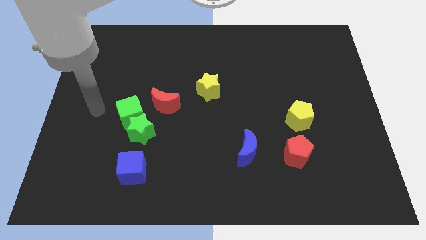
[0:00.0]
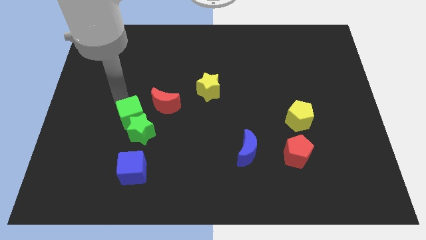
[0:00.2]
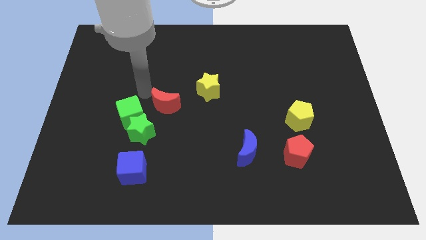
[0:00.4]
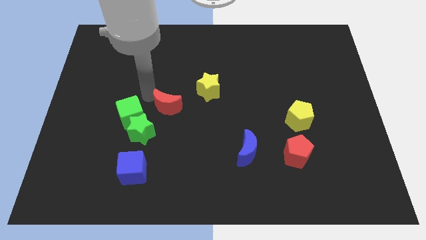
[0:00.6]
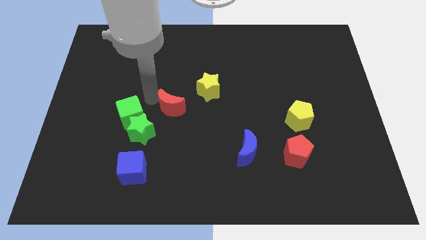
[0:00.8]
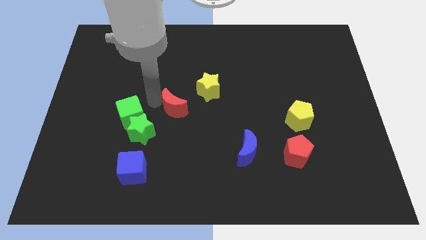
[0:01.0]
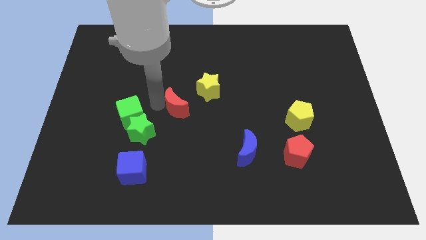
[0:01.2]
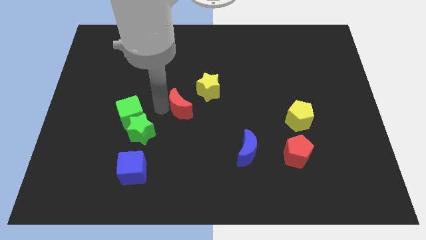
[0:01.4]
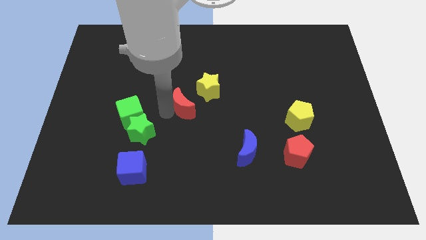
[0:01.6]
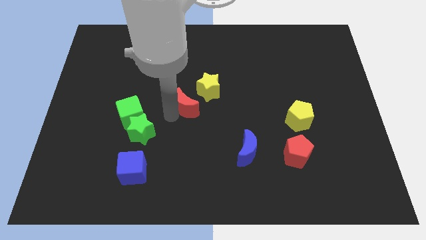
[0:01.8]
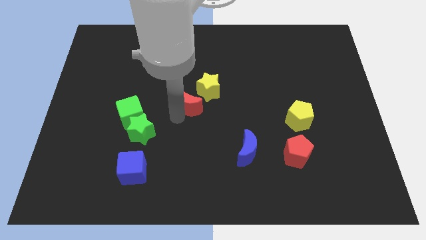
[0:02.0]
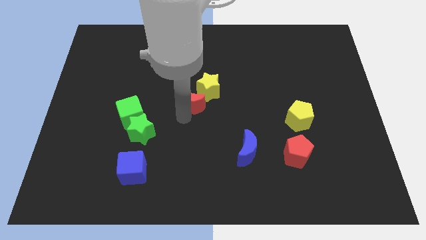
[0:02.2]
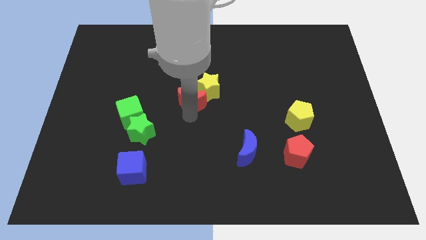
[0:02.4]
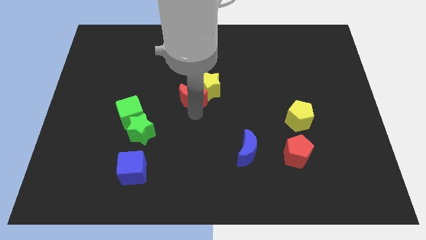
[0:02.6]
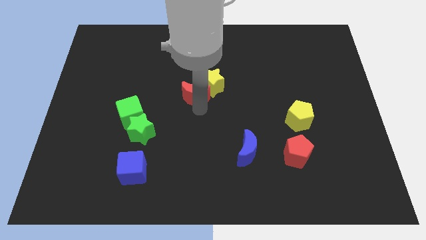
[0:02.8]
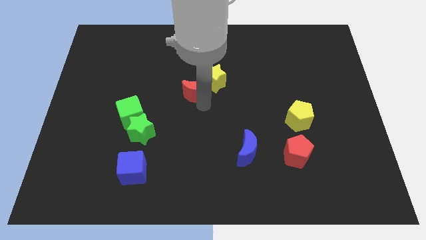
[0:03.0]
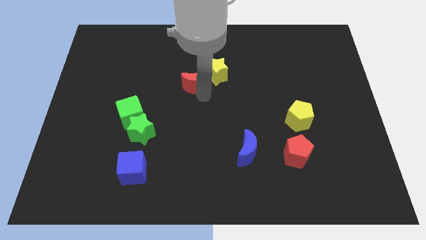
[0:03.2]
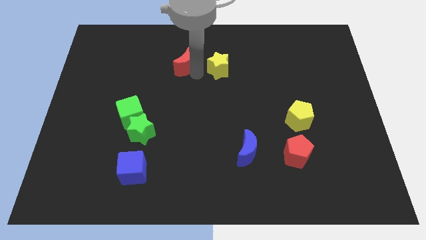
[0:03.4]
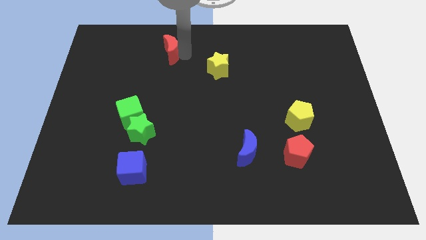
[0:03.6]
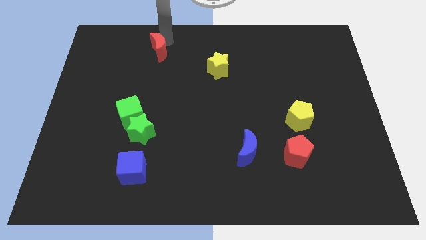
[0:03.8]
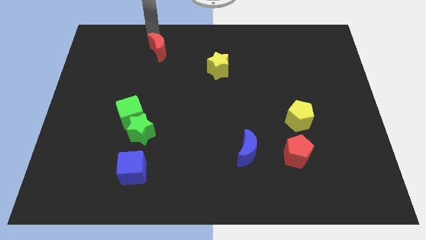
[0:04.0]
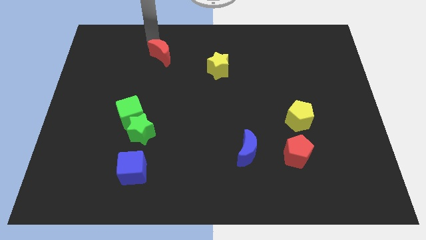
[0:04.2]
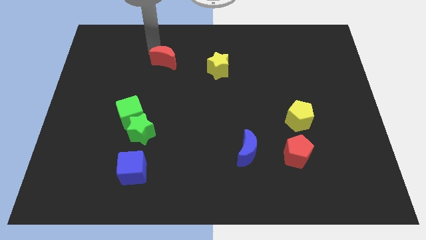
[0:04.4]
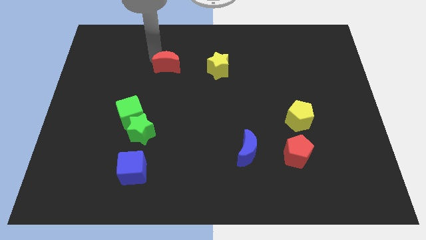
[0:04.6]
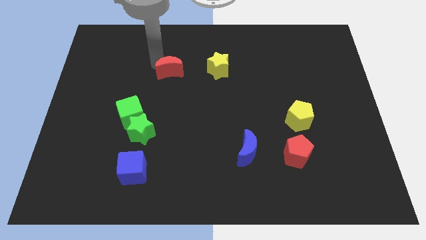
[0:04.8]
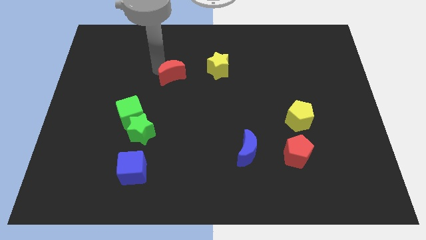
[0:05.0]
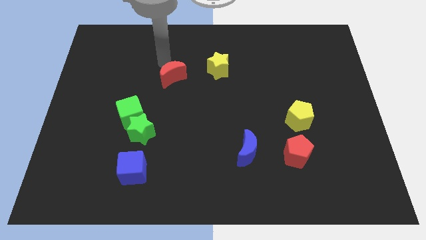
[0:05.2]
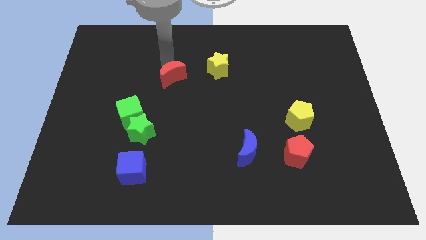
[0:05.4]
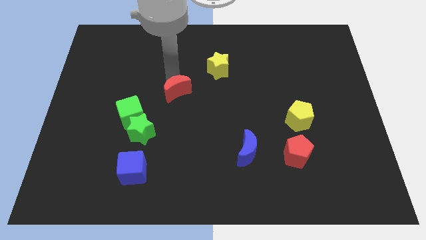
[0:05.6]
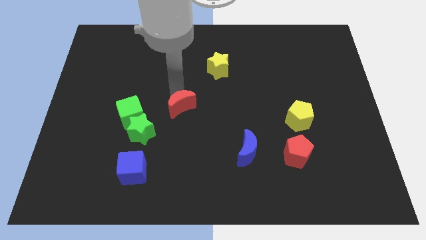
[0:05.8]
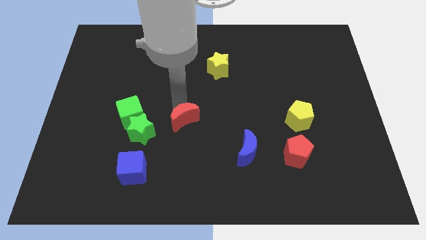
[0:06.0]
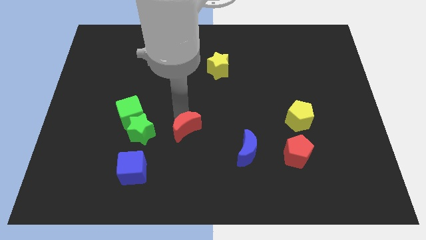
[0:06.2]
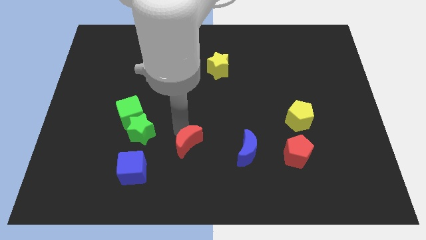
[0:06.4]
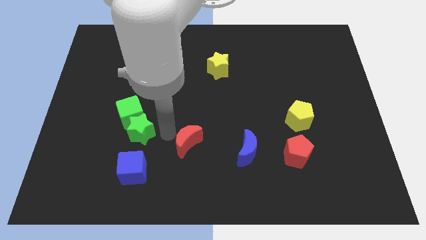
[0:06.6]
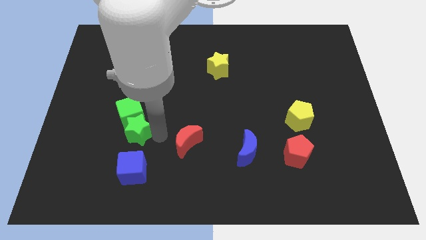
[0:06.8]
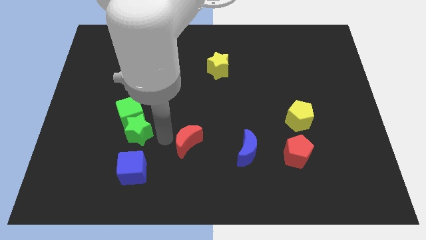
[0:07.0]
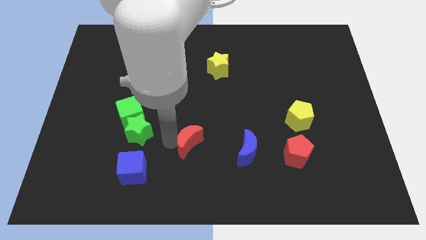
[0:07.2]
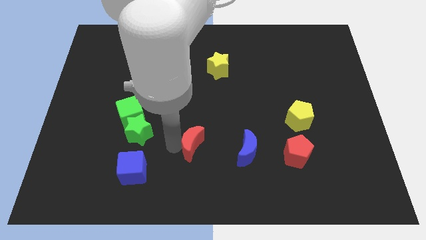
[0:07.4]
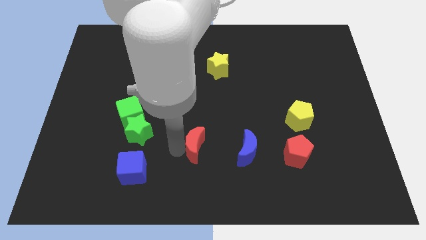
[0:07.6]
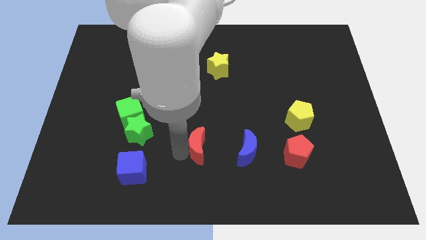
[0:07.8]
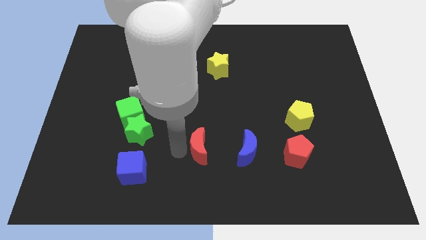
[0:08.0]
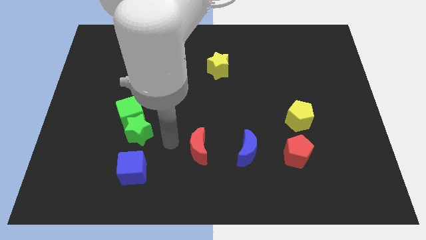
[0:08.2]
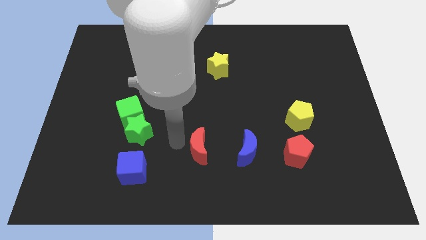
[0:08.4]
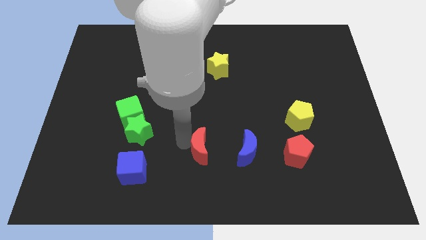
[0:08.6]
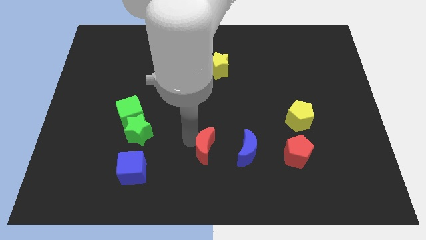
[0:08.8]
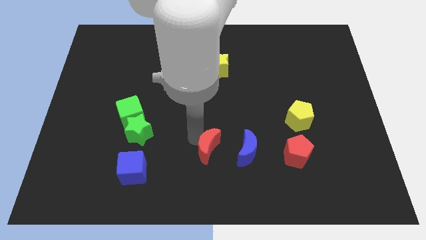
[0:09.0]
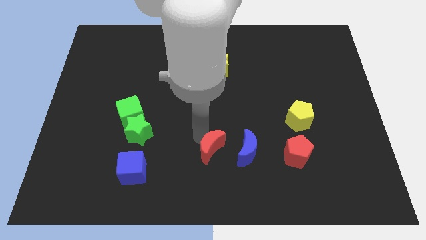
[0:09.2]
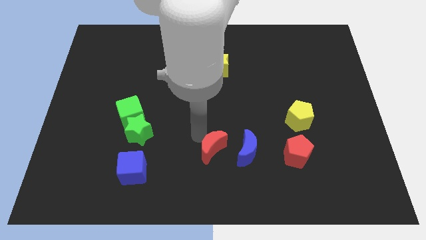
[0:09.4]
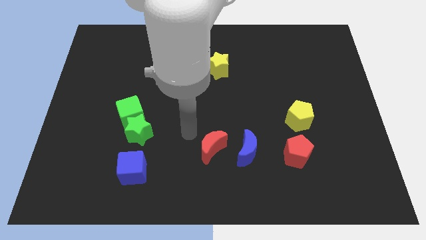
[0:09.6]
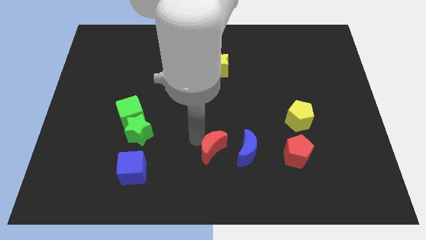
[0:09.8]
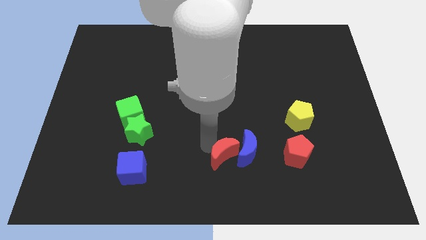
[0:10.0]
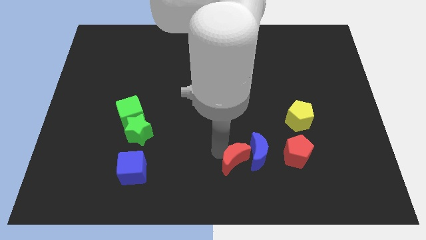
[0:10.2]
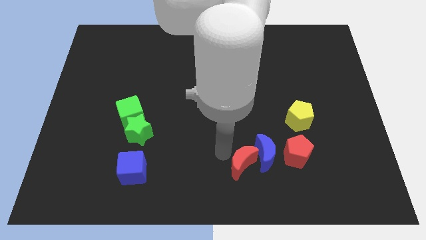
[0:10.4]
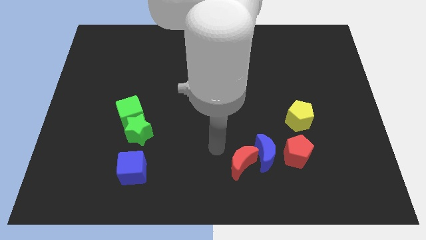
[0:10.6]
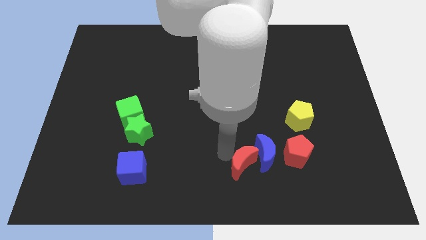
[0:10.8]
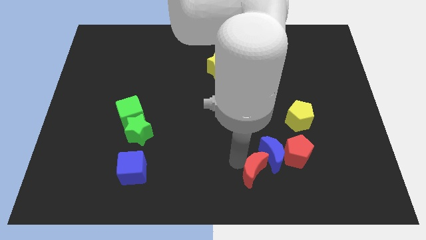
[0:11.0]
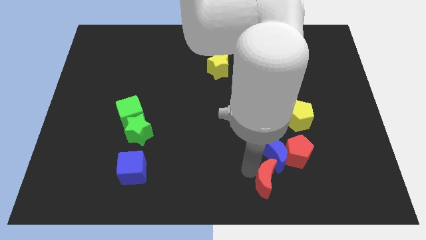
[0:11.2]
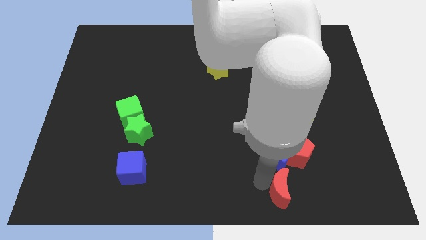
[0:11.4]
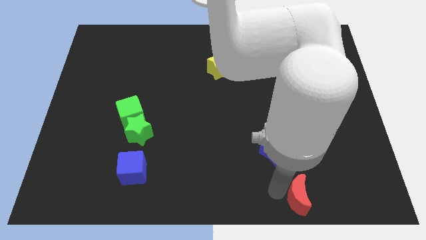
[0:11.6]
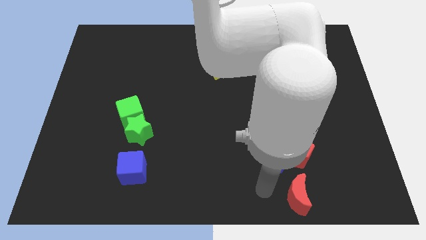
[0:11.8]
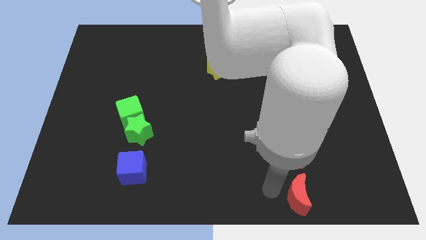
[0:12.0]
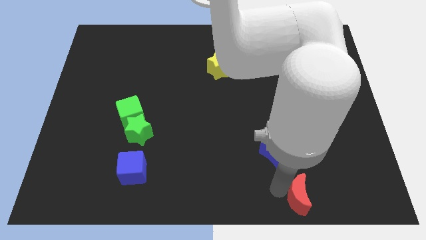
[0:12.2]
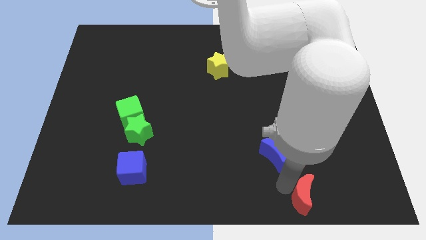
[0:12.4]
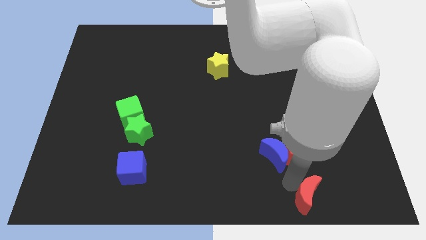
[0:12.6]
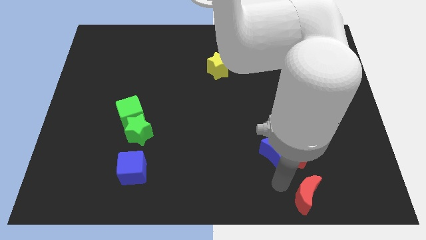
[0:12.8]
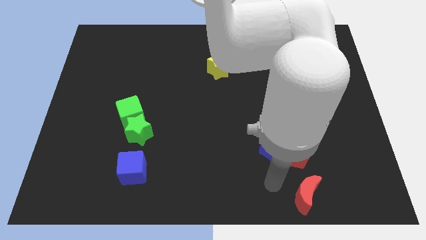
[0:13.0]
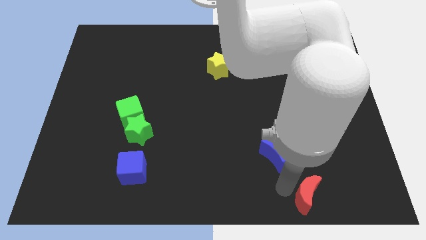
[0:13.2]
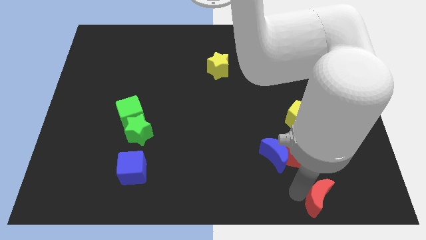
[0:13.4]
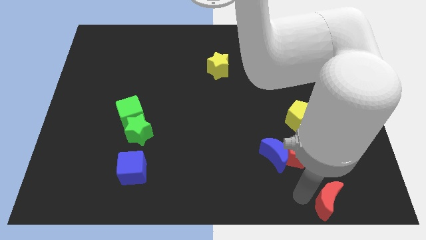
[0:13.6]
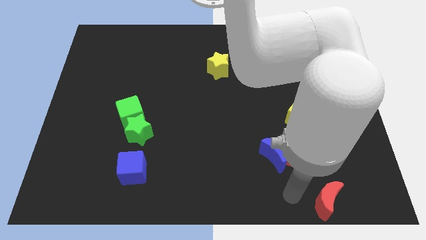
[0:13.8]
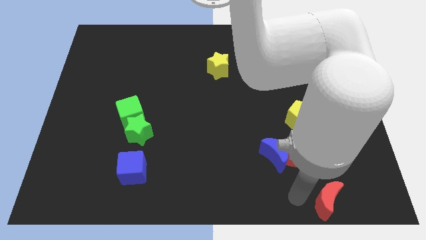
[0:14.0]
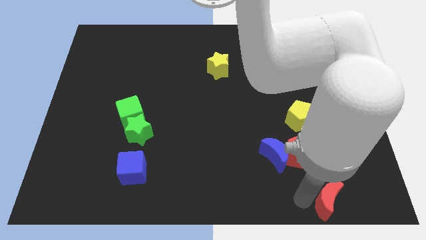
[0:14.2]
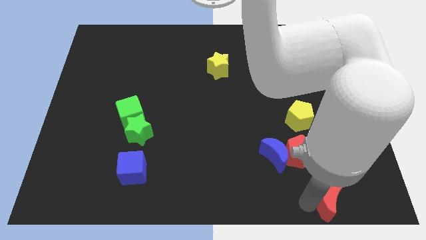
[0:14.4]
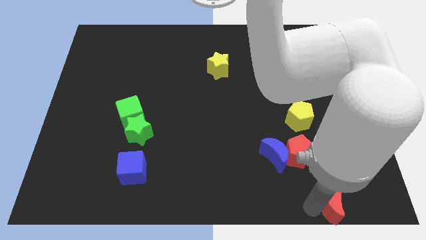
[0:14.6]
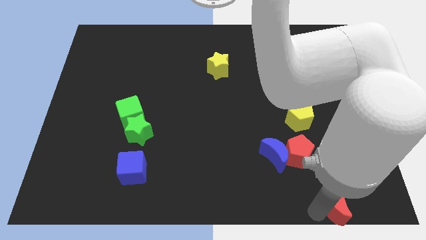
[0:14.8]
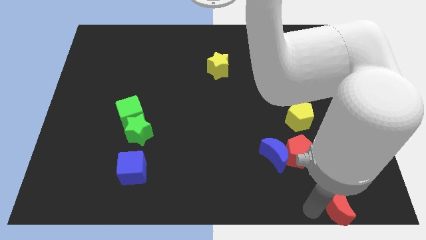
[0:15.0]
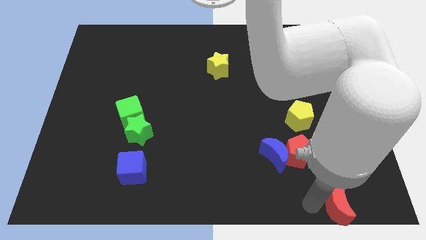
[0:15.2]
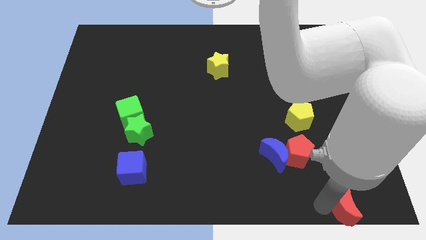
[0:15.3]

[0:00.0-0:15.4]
slide the red moon to the lower right corner
